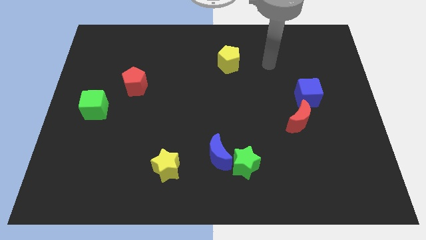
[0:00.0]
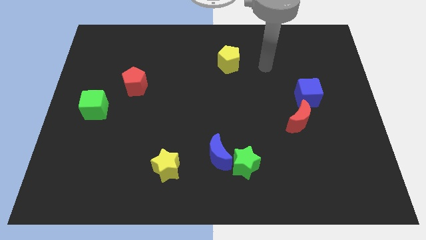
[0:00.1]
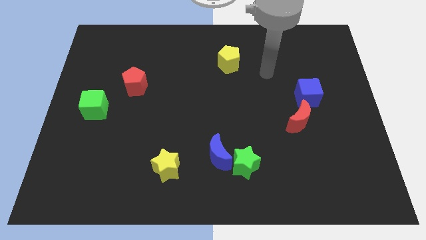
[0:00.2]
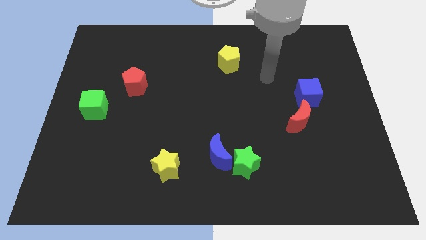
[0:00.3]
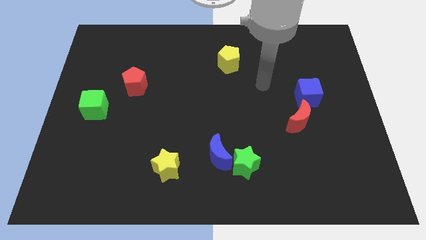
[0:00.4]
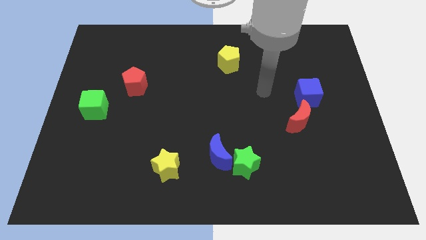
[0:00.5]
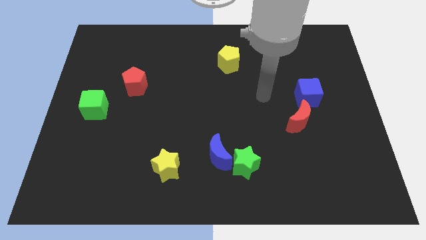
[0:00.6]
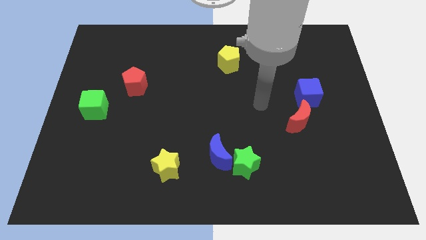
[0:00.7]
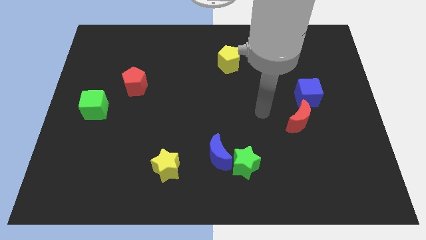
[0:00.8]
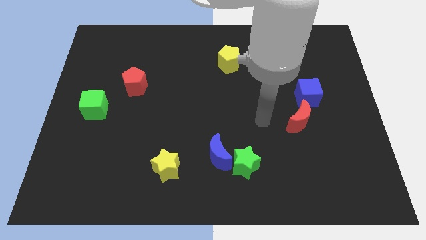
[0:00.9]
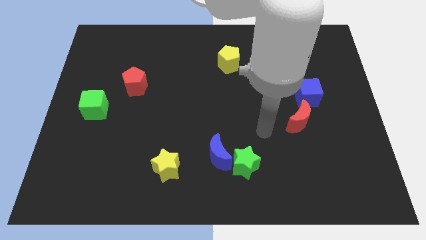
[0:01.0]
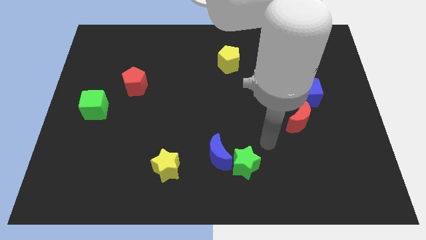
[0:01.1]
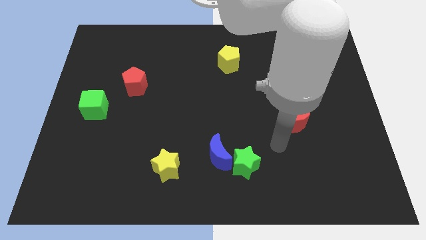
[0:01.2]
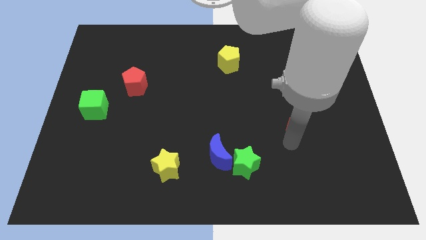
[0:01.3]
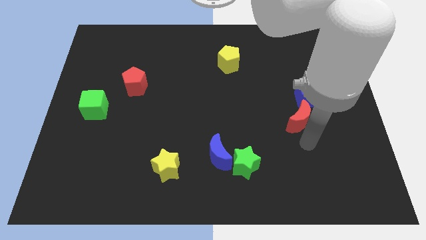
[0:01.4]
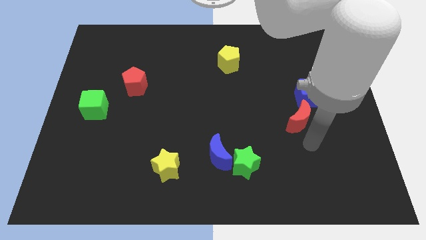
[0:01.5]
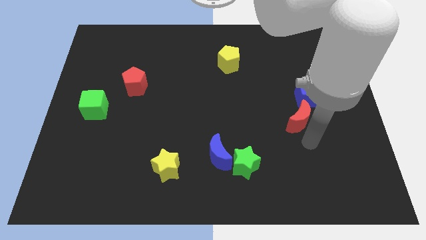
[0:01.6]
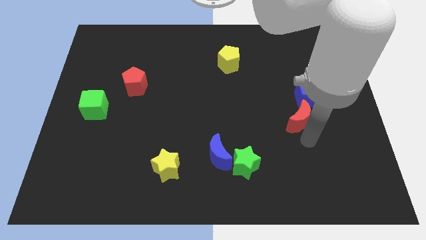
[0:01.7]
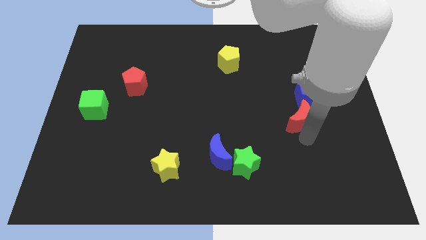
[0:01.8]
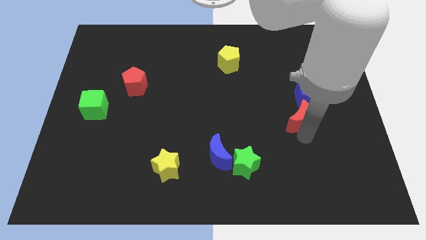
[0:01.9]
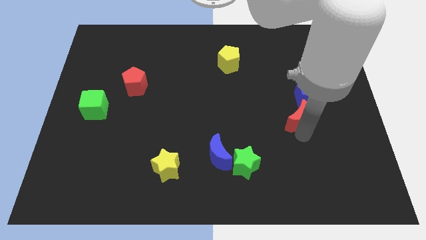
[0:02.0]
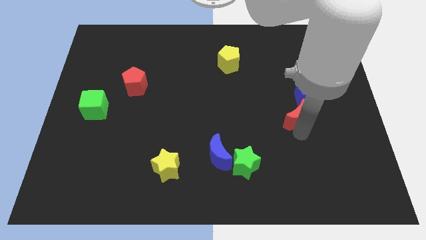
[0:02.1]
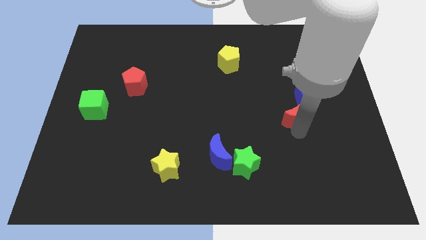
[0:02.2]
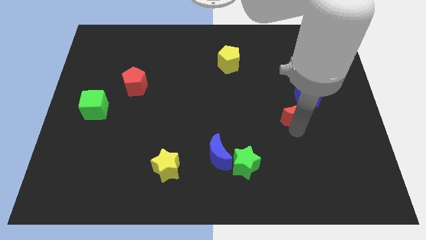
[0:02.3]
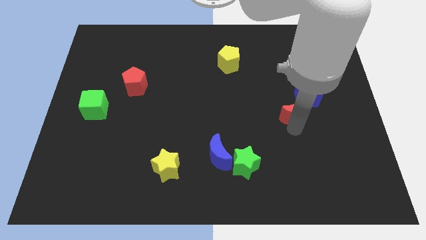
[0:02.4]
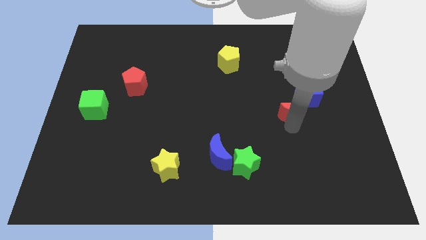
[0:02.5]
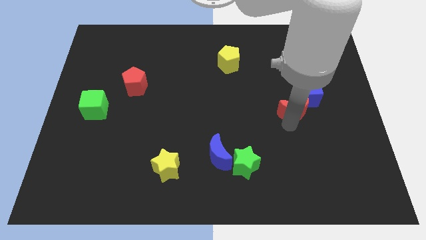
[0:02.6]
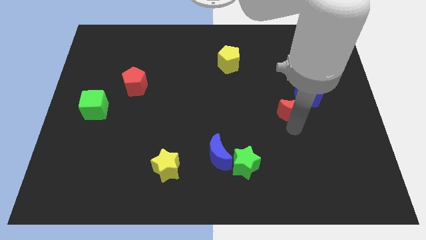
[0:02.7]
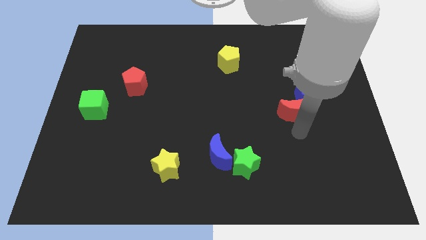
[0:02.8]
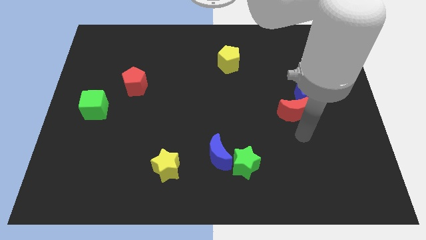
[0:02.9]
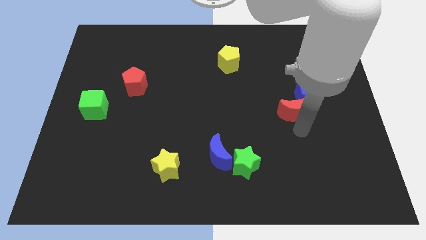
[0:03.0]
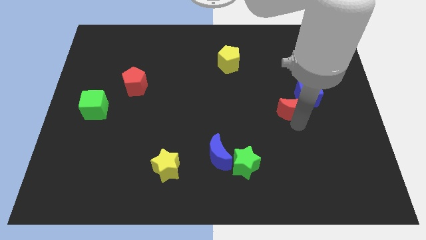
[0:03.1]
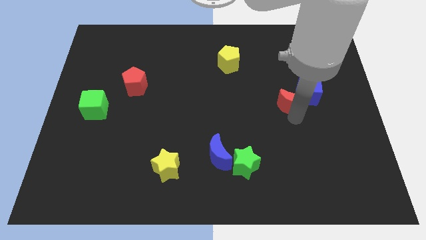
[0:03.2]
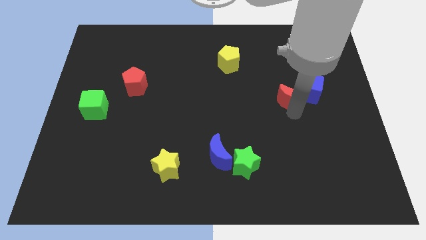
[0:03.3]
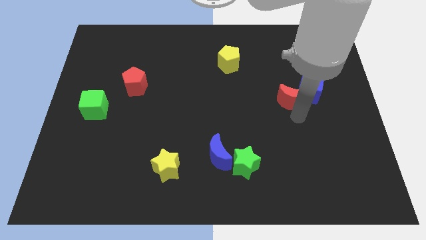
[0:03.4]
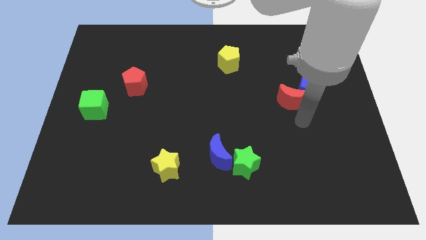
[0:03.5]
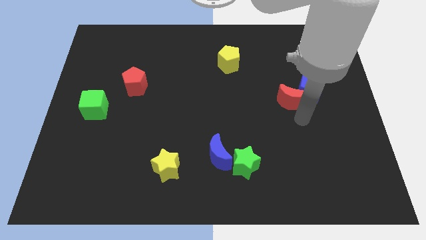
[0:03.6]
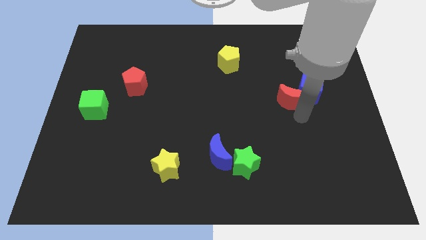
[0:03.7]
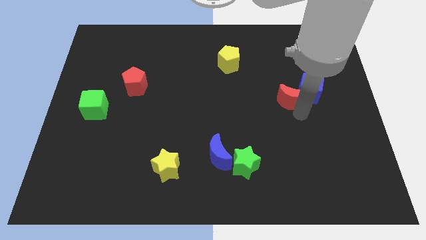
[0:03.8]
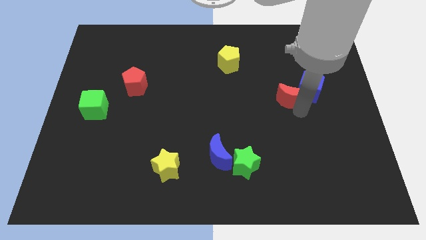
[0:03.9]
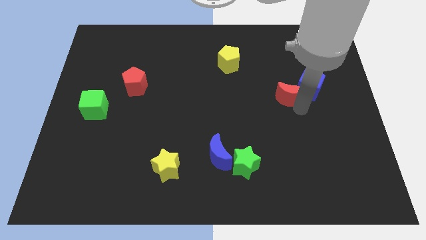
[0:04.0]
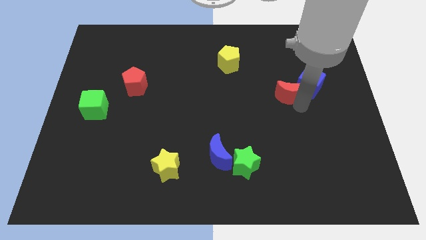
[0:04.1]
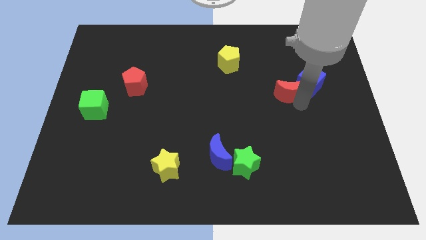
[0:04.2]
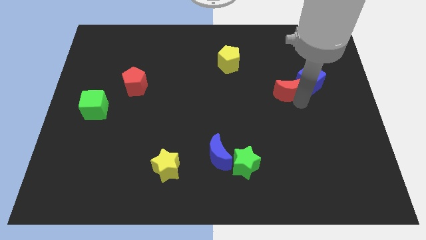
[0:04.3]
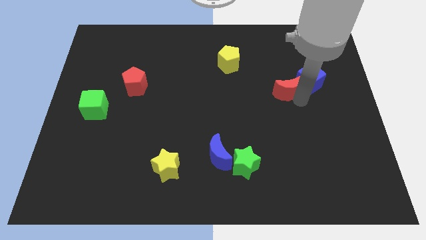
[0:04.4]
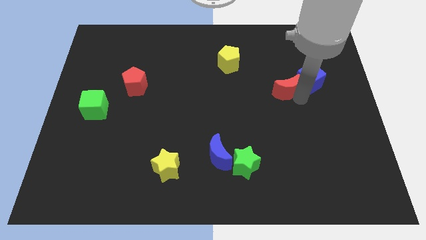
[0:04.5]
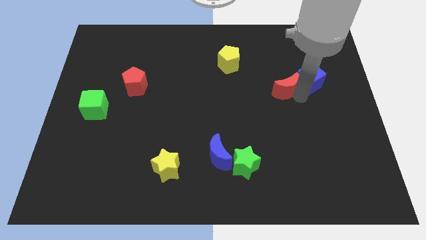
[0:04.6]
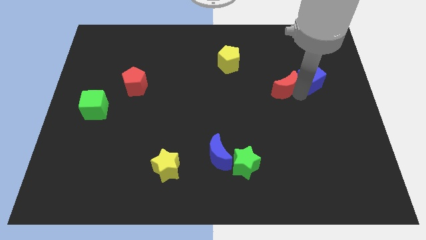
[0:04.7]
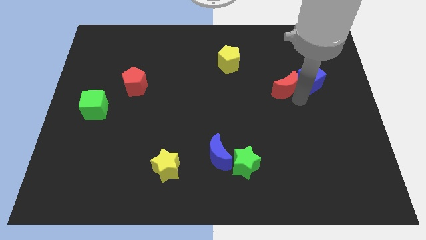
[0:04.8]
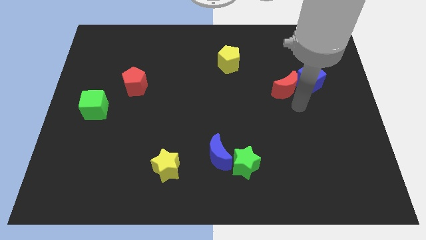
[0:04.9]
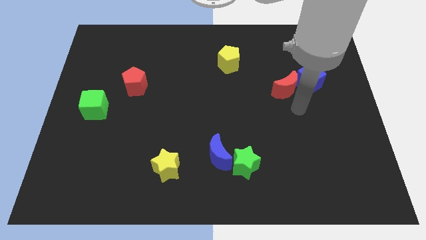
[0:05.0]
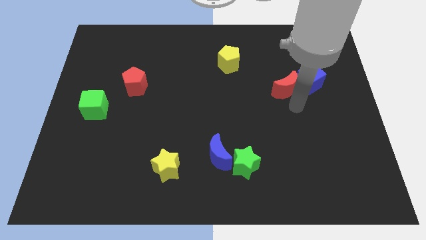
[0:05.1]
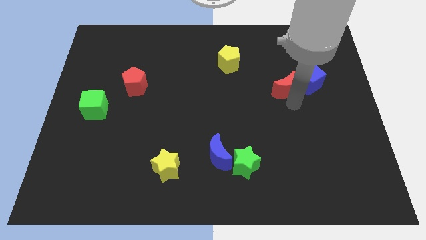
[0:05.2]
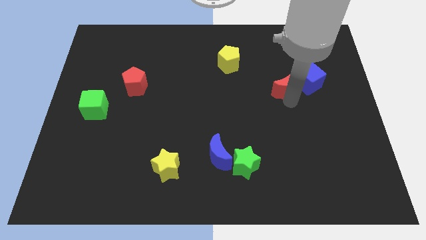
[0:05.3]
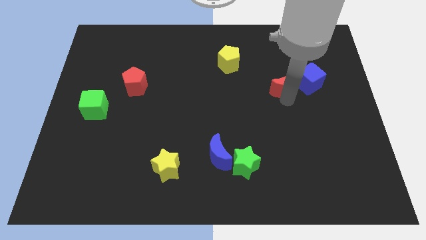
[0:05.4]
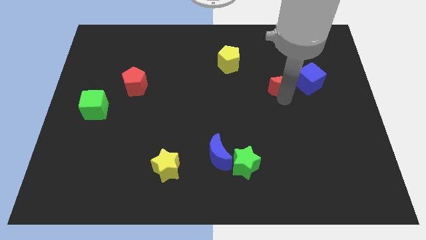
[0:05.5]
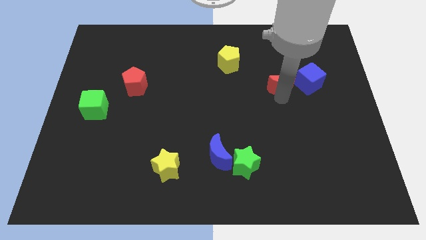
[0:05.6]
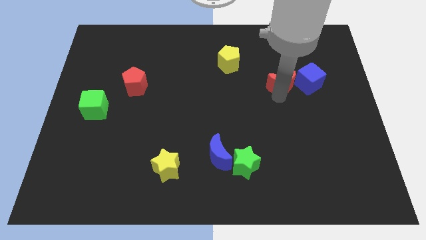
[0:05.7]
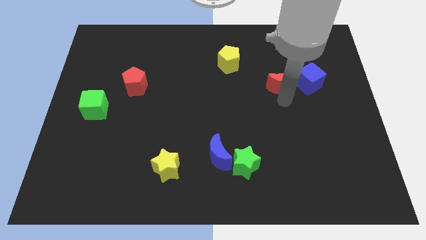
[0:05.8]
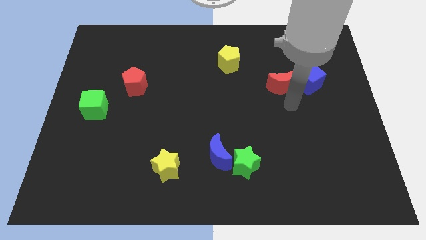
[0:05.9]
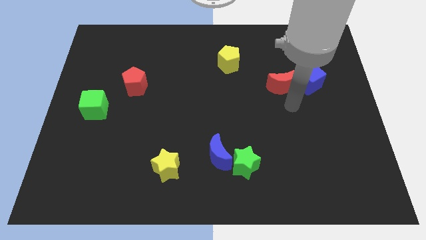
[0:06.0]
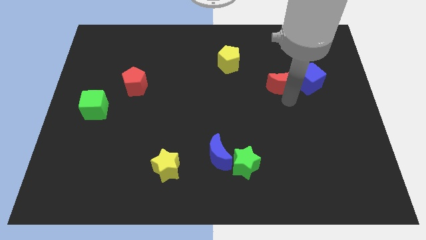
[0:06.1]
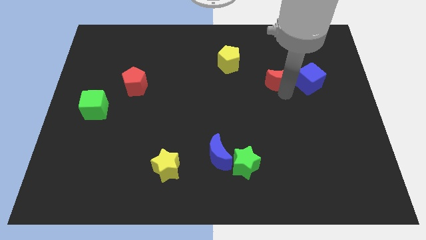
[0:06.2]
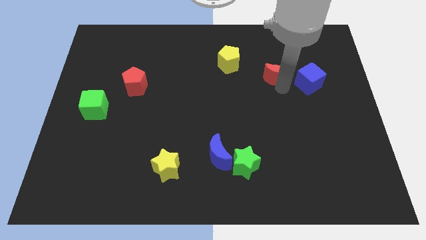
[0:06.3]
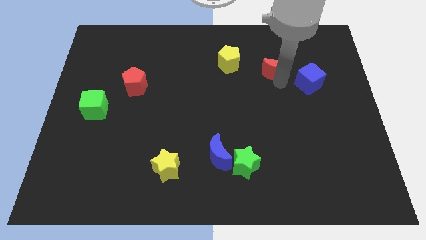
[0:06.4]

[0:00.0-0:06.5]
put the red moon to the right of the yellow pentagon
